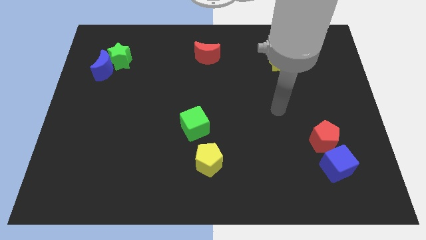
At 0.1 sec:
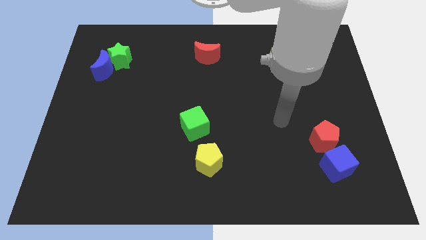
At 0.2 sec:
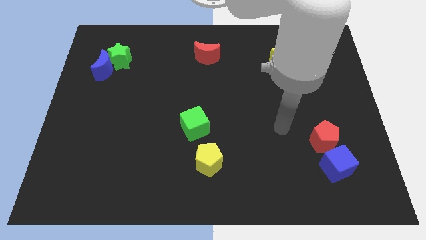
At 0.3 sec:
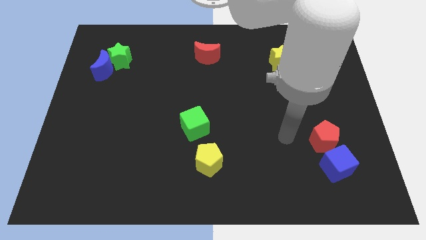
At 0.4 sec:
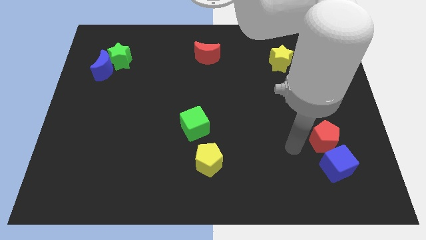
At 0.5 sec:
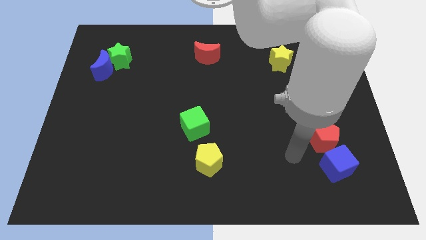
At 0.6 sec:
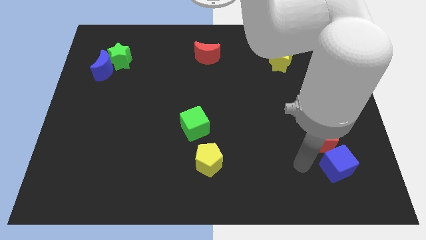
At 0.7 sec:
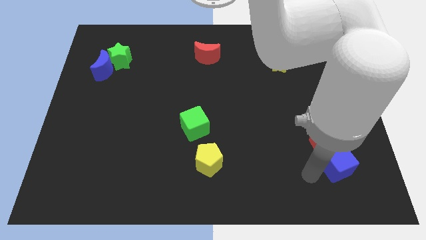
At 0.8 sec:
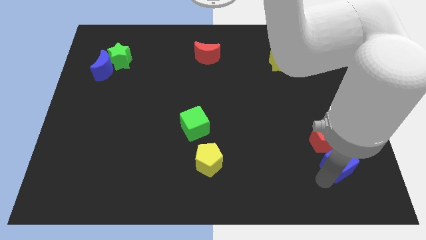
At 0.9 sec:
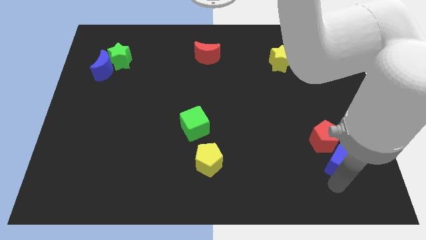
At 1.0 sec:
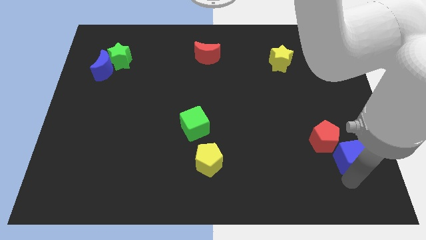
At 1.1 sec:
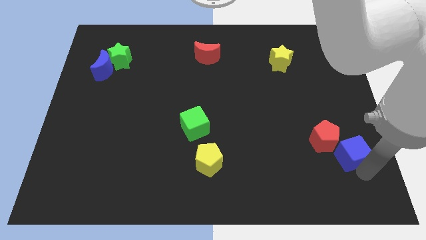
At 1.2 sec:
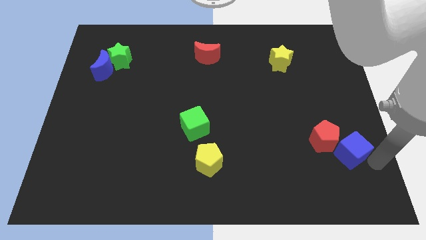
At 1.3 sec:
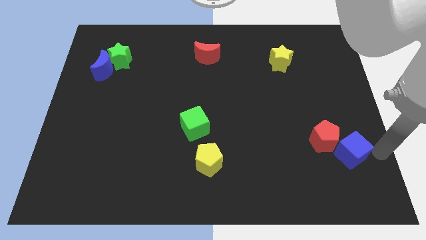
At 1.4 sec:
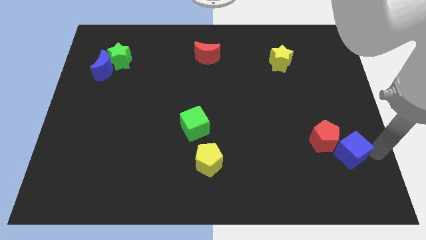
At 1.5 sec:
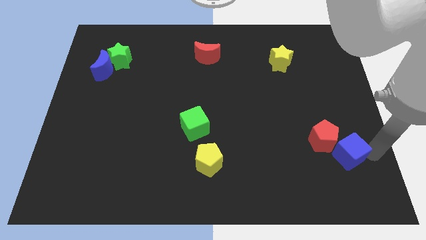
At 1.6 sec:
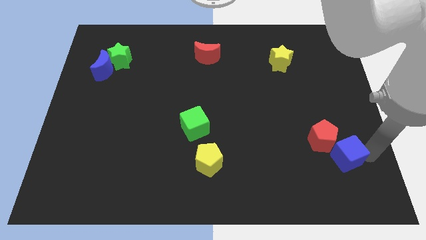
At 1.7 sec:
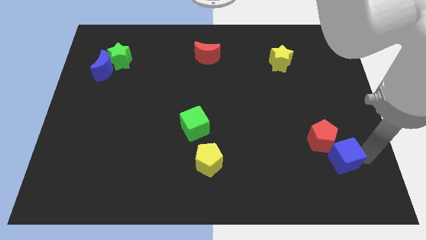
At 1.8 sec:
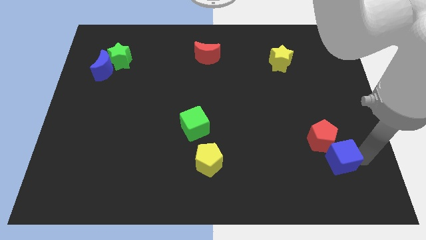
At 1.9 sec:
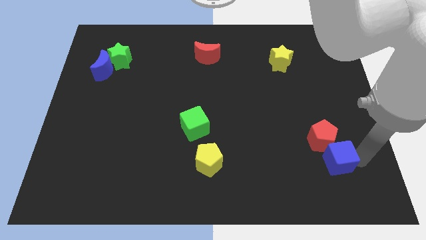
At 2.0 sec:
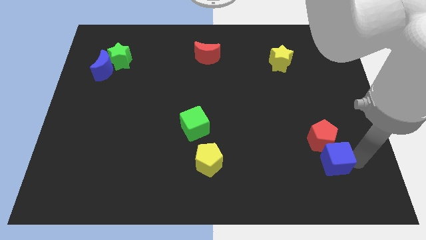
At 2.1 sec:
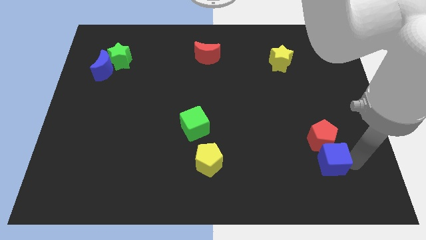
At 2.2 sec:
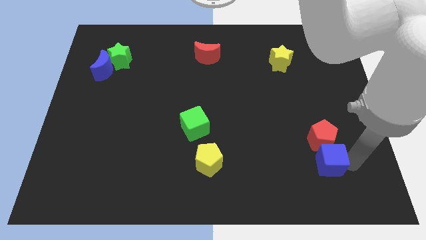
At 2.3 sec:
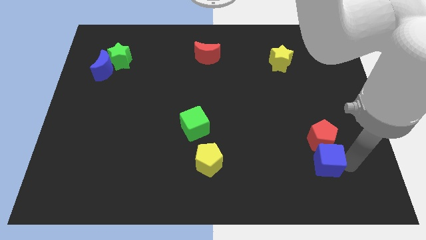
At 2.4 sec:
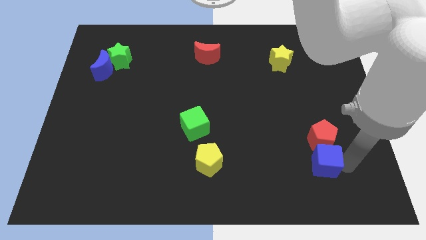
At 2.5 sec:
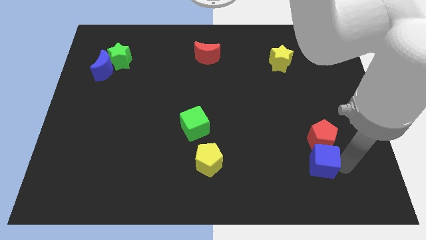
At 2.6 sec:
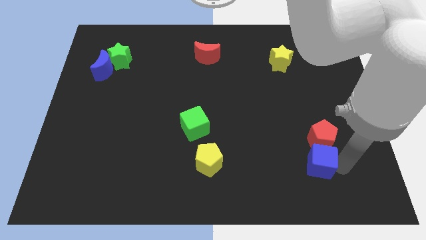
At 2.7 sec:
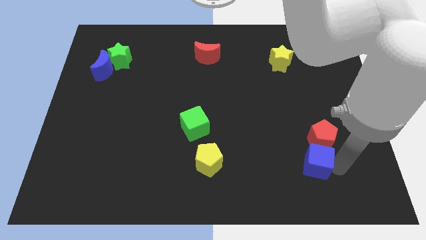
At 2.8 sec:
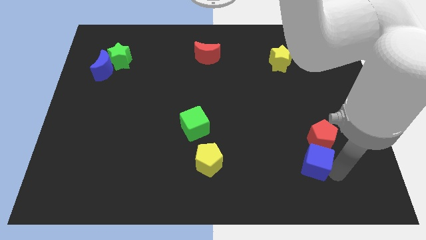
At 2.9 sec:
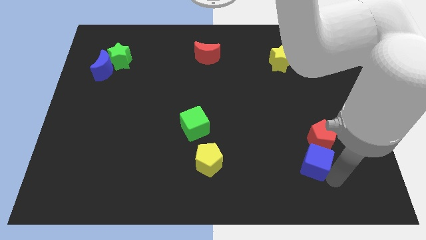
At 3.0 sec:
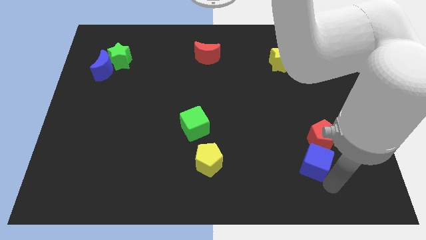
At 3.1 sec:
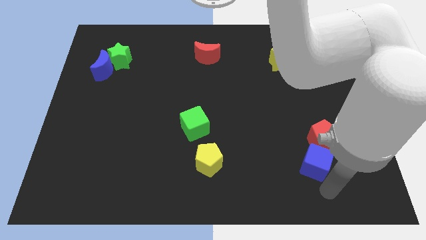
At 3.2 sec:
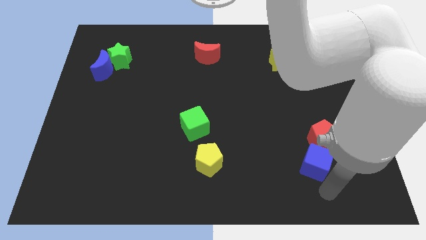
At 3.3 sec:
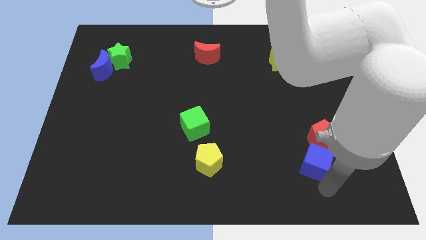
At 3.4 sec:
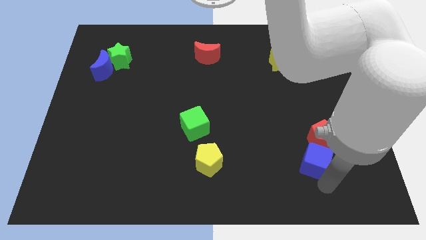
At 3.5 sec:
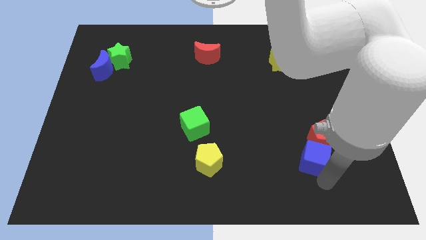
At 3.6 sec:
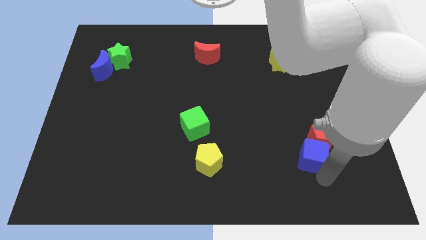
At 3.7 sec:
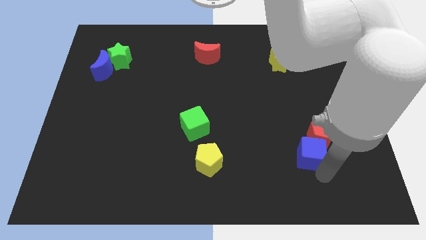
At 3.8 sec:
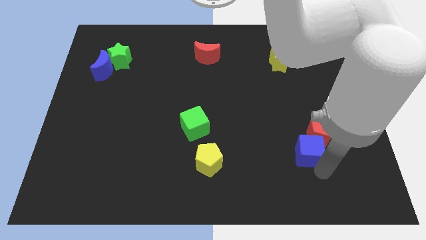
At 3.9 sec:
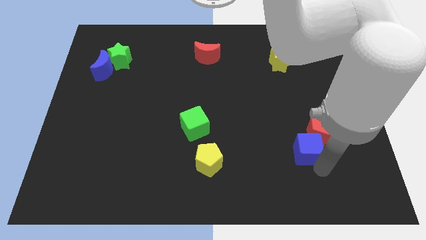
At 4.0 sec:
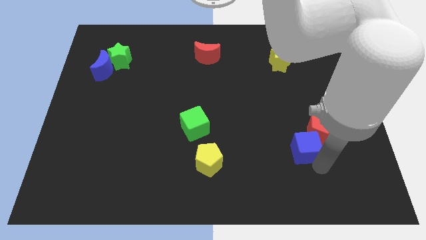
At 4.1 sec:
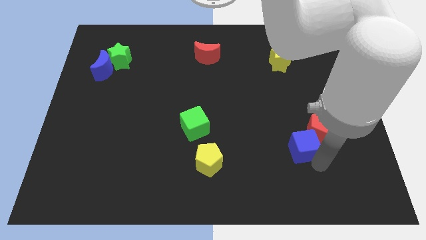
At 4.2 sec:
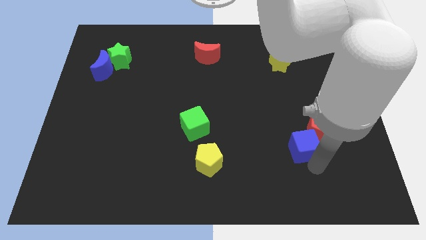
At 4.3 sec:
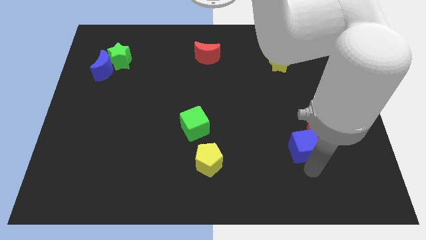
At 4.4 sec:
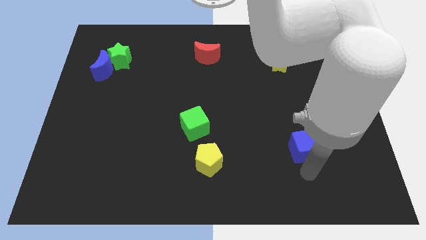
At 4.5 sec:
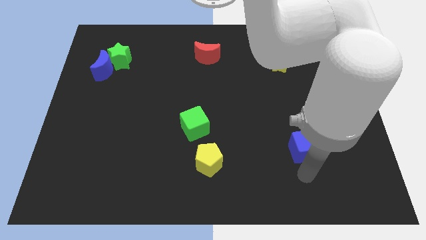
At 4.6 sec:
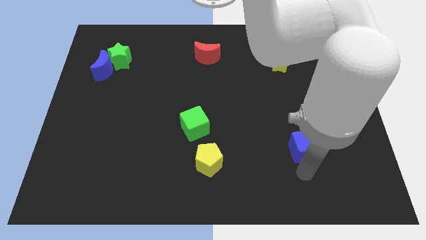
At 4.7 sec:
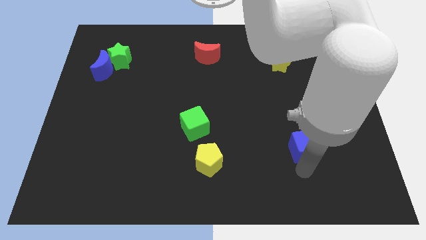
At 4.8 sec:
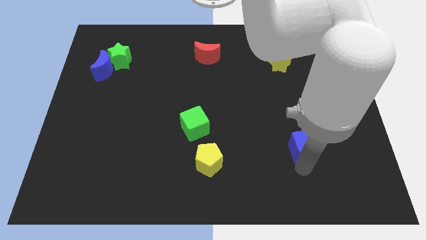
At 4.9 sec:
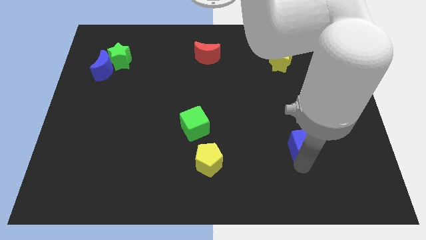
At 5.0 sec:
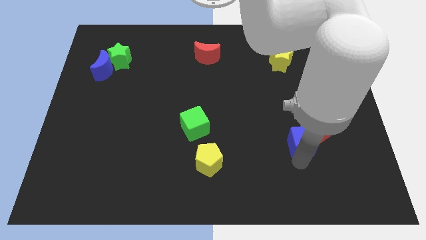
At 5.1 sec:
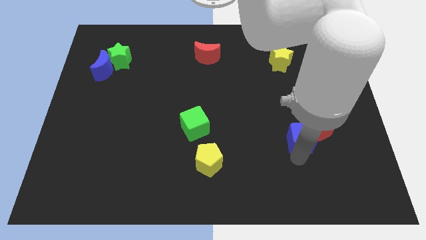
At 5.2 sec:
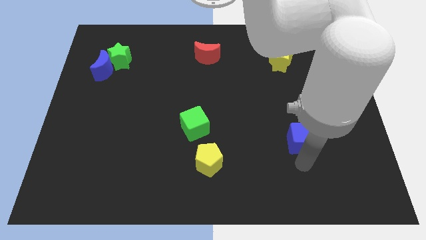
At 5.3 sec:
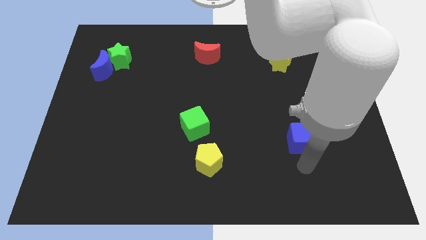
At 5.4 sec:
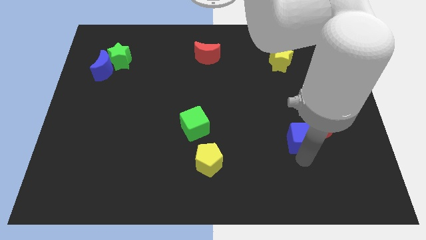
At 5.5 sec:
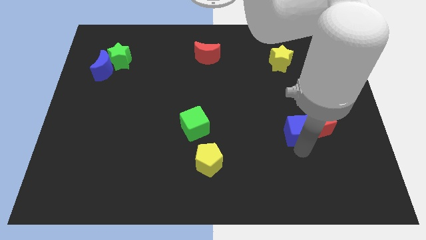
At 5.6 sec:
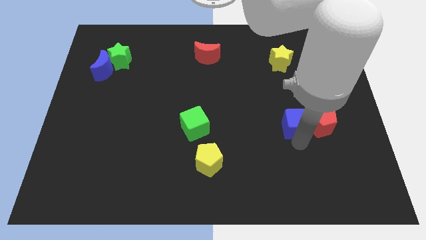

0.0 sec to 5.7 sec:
put the blue cube to the top left side of the red pentagon

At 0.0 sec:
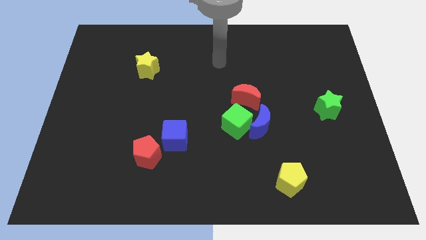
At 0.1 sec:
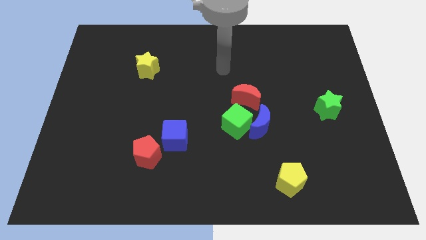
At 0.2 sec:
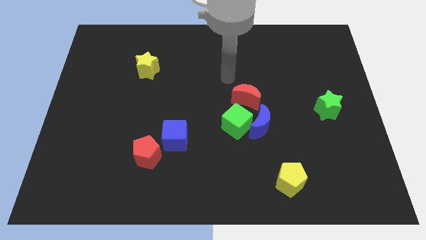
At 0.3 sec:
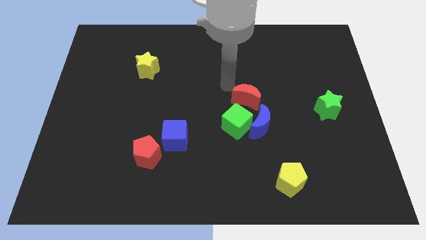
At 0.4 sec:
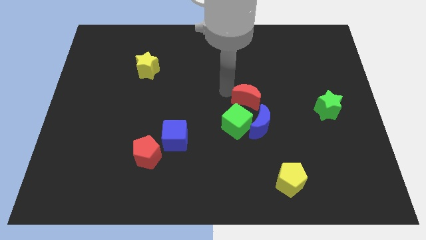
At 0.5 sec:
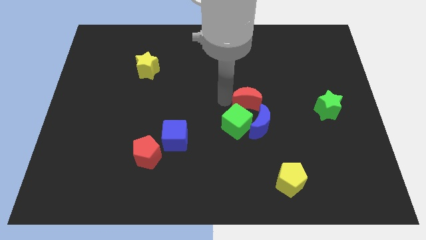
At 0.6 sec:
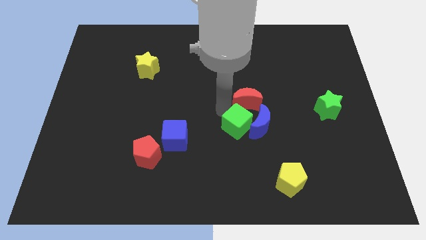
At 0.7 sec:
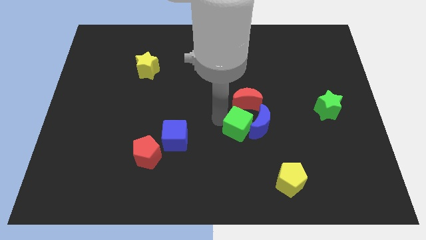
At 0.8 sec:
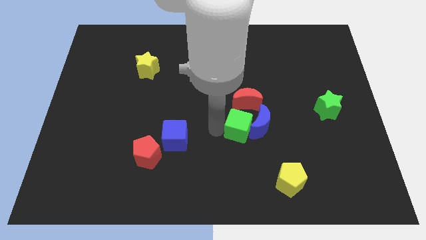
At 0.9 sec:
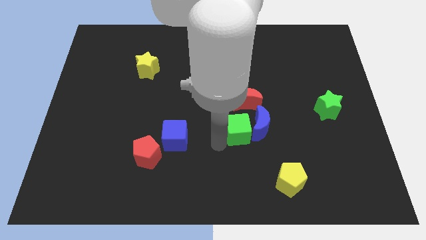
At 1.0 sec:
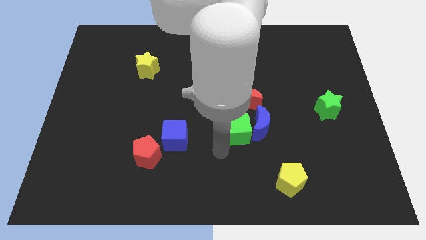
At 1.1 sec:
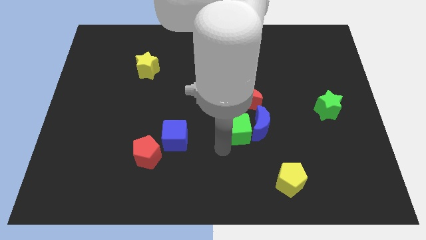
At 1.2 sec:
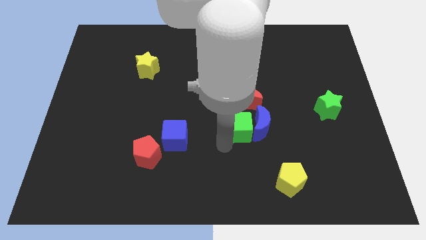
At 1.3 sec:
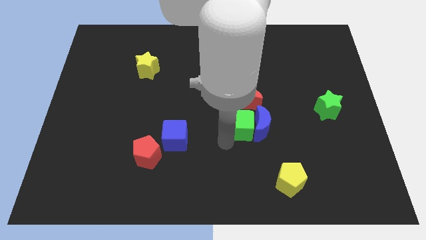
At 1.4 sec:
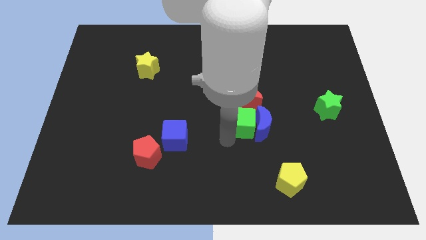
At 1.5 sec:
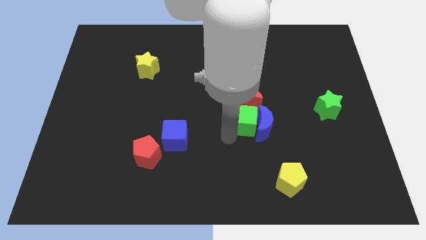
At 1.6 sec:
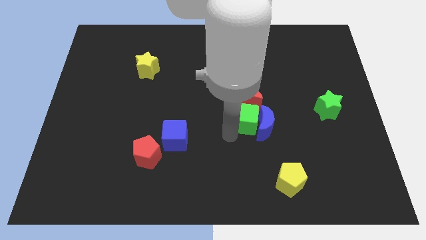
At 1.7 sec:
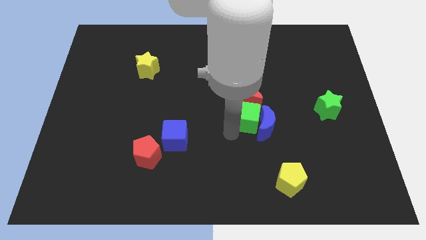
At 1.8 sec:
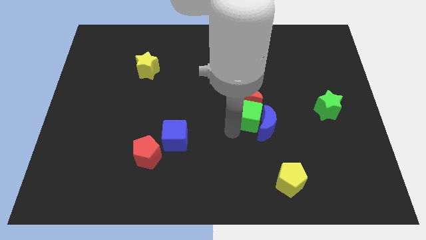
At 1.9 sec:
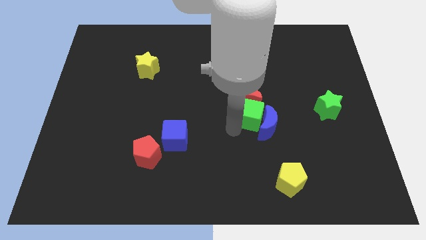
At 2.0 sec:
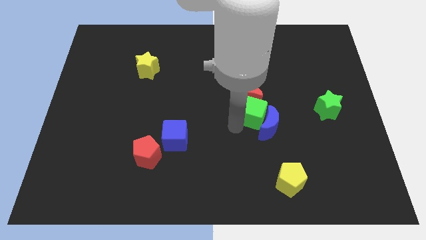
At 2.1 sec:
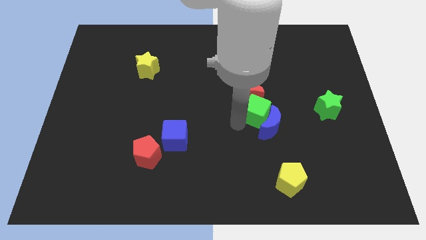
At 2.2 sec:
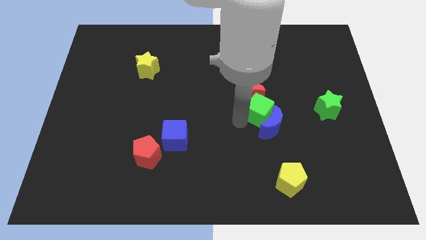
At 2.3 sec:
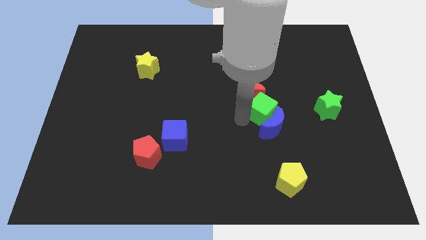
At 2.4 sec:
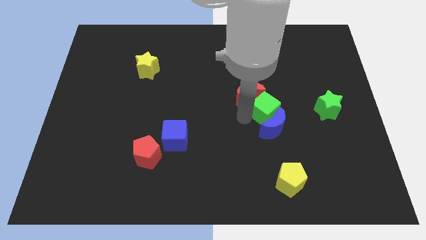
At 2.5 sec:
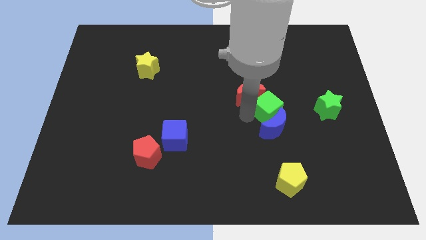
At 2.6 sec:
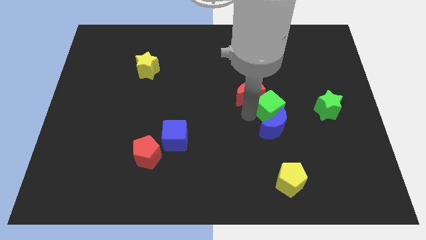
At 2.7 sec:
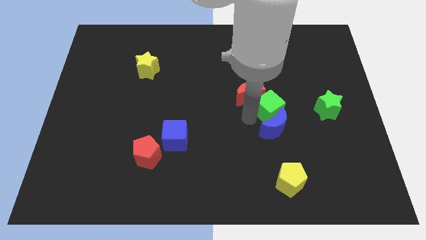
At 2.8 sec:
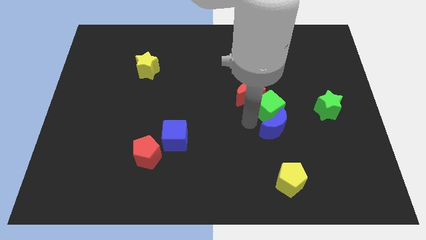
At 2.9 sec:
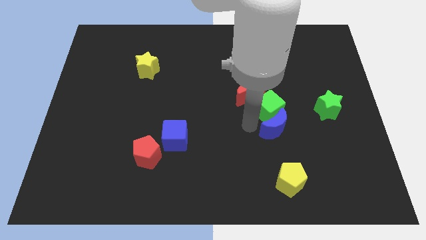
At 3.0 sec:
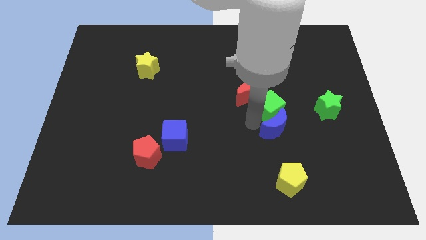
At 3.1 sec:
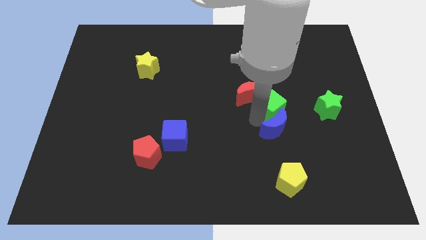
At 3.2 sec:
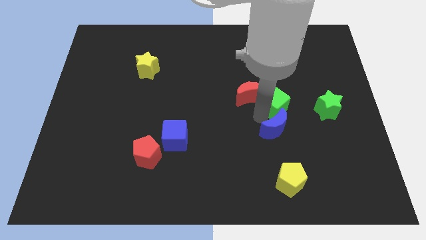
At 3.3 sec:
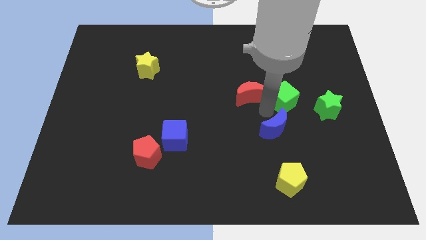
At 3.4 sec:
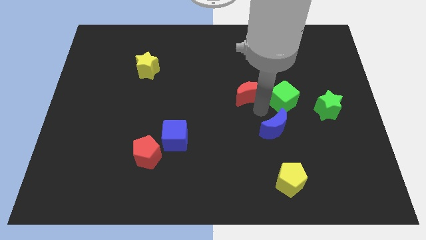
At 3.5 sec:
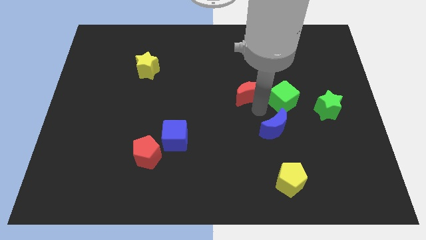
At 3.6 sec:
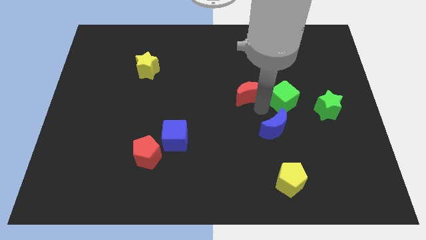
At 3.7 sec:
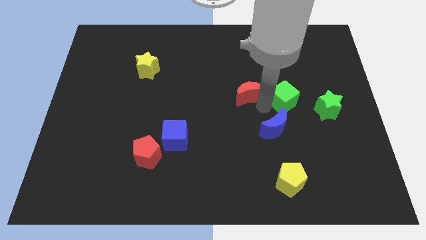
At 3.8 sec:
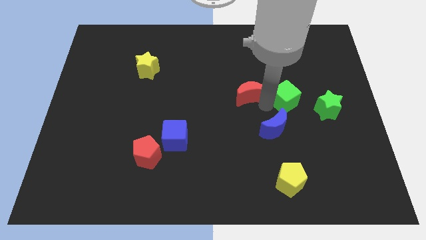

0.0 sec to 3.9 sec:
put the green cube to the top left of the green star
